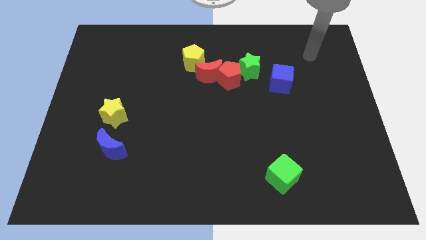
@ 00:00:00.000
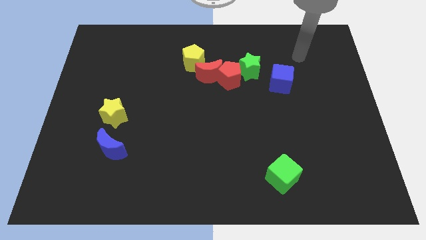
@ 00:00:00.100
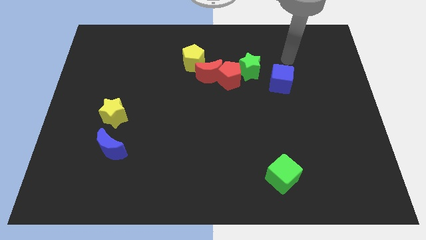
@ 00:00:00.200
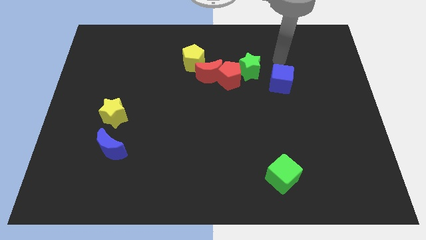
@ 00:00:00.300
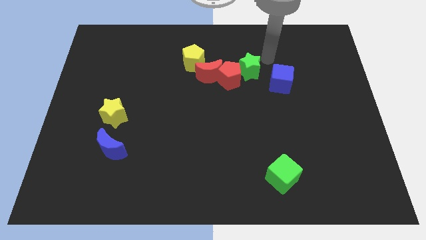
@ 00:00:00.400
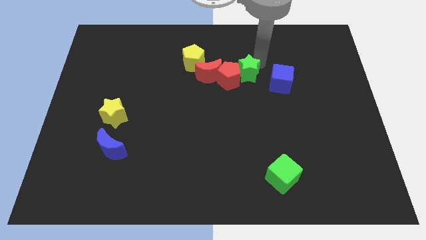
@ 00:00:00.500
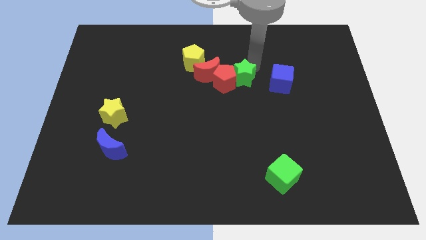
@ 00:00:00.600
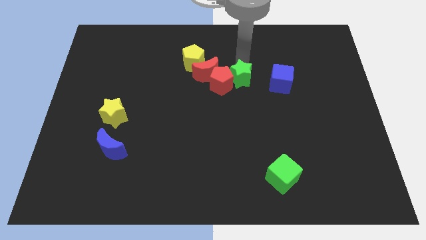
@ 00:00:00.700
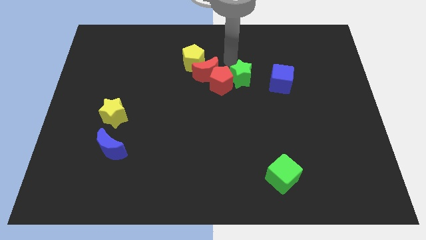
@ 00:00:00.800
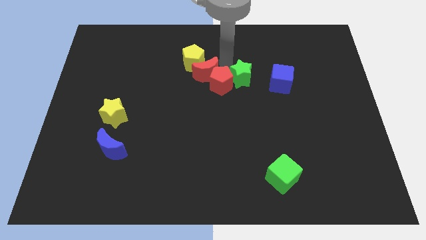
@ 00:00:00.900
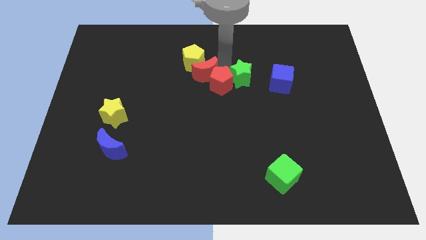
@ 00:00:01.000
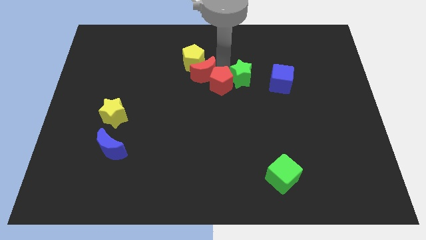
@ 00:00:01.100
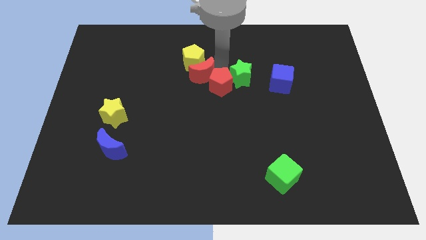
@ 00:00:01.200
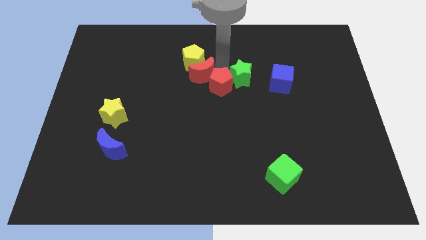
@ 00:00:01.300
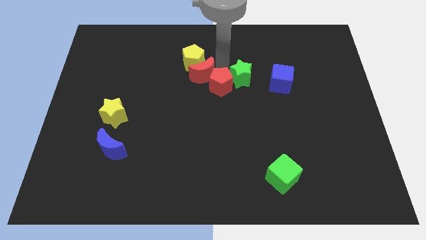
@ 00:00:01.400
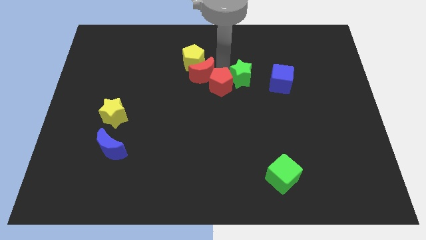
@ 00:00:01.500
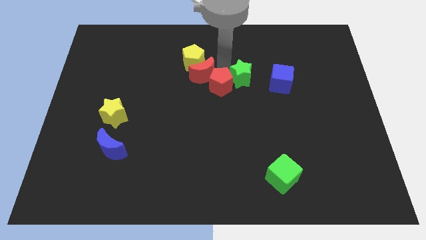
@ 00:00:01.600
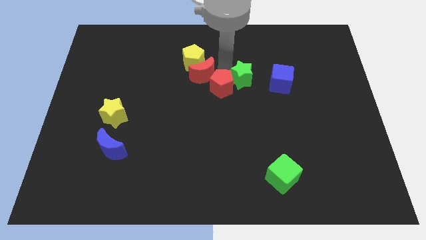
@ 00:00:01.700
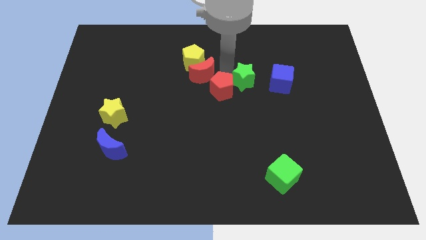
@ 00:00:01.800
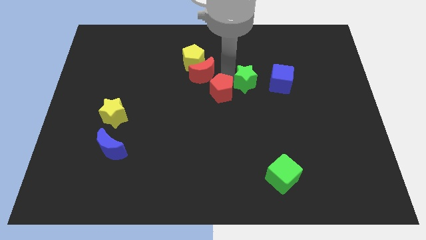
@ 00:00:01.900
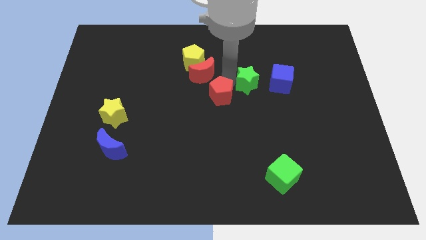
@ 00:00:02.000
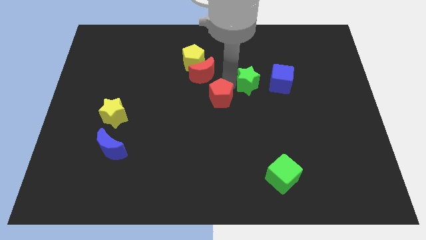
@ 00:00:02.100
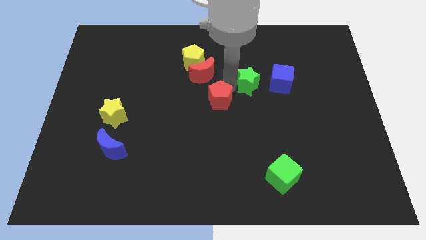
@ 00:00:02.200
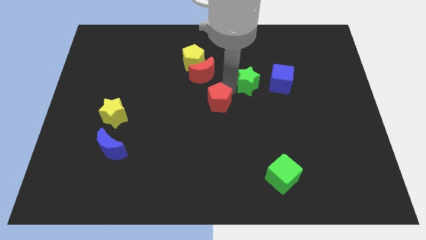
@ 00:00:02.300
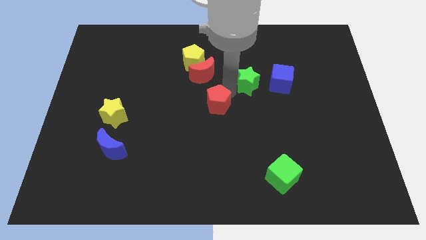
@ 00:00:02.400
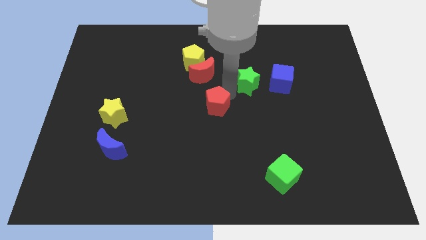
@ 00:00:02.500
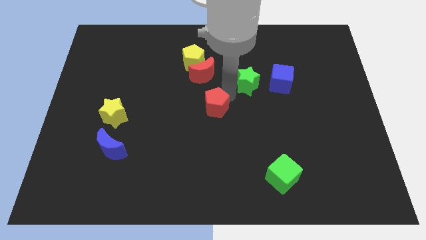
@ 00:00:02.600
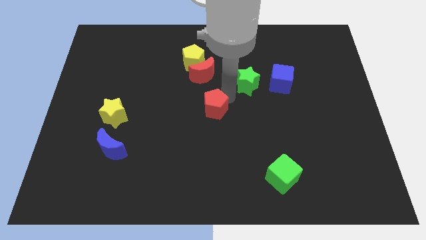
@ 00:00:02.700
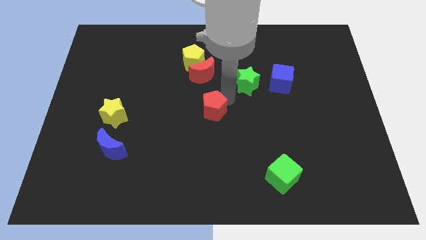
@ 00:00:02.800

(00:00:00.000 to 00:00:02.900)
separate the red pentagon from the red moon and green star

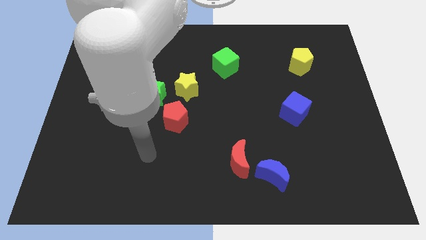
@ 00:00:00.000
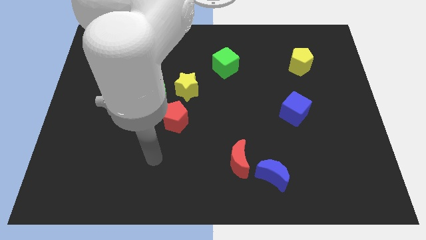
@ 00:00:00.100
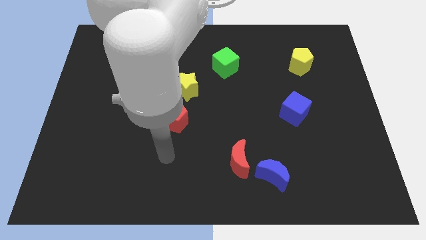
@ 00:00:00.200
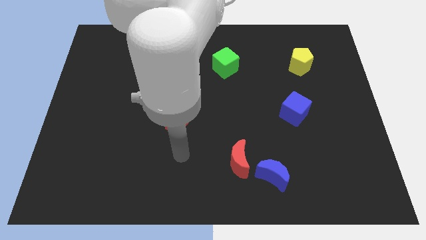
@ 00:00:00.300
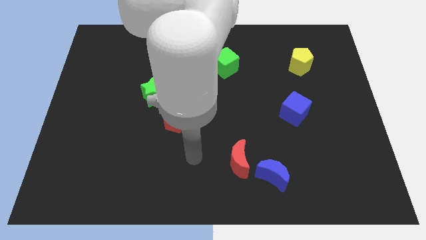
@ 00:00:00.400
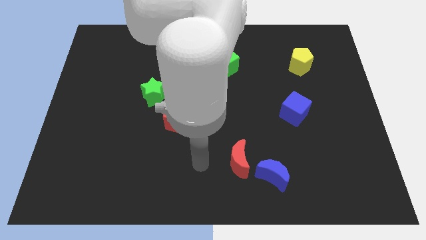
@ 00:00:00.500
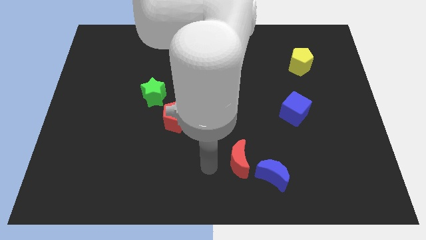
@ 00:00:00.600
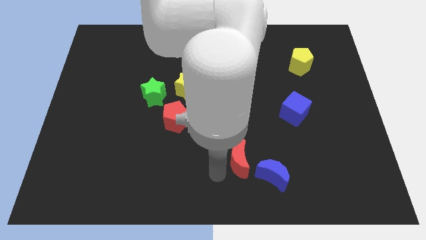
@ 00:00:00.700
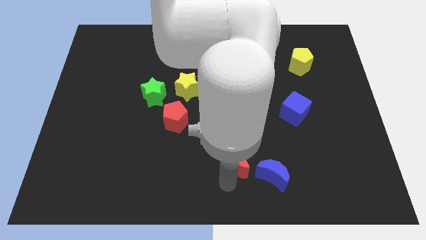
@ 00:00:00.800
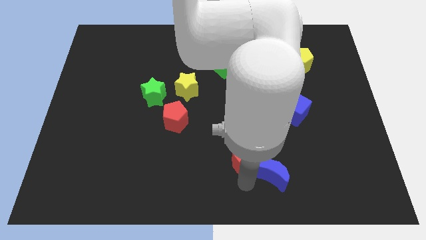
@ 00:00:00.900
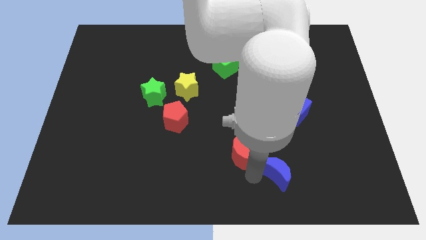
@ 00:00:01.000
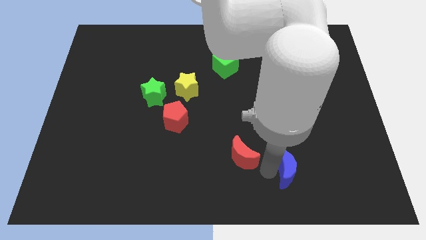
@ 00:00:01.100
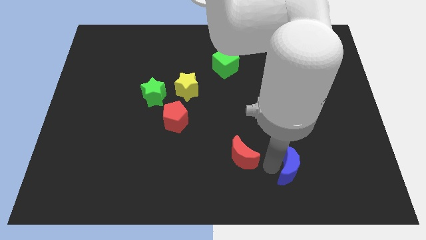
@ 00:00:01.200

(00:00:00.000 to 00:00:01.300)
move the red moon away from the blue moon

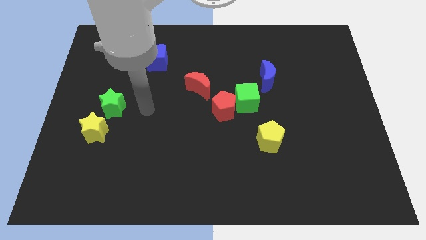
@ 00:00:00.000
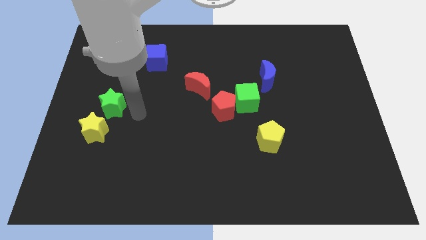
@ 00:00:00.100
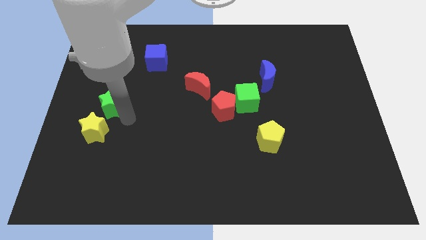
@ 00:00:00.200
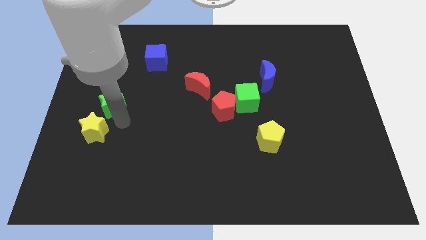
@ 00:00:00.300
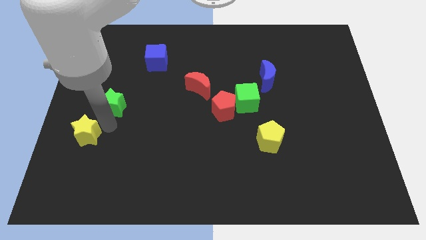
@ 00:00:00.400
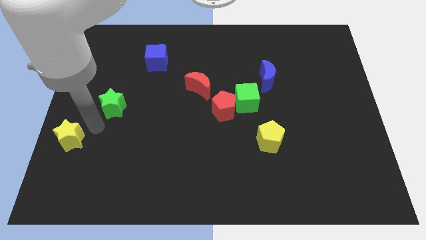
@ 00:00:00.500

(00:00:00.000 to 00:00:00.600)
pull the green star apart from the yellow star

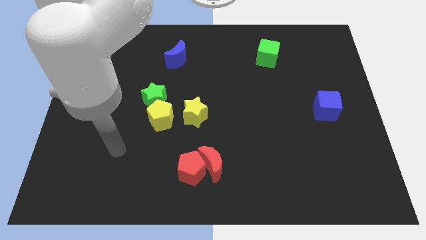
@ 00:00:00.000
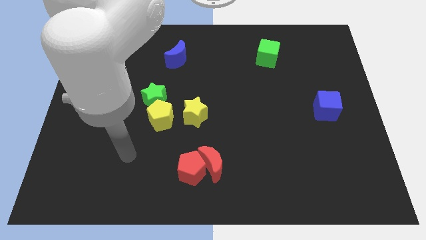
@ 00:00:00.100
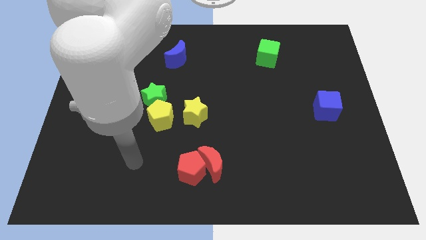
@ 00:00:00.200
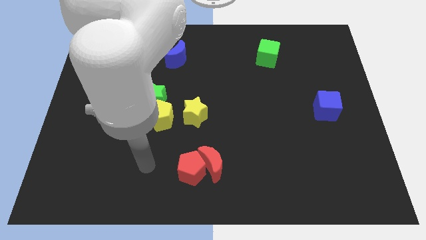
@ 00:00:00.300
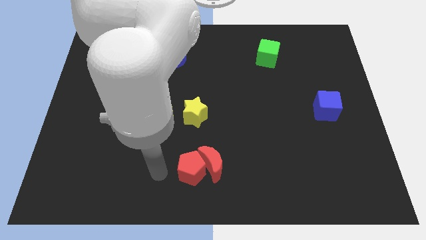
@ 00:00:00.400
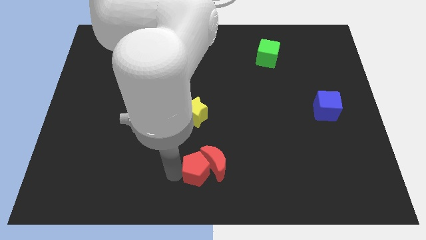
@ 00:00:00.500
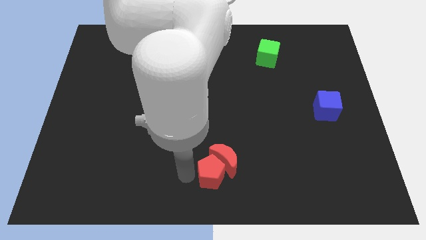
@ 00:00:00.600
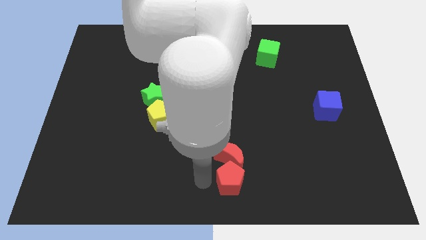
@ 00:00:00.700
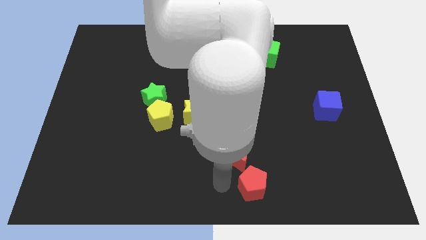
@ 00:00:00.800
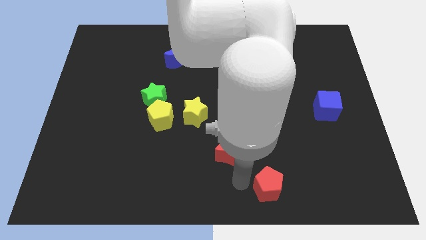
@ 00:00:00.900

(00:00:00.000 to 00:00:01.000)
move the red moon away from the red pentagon

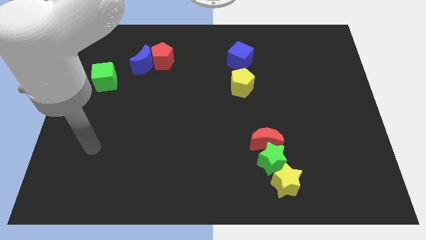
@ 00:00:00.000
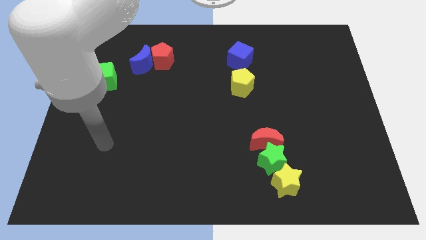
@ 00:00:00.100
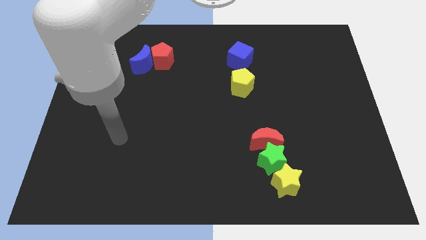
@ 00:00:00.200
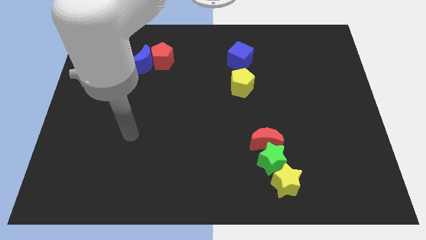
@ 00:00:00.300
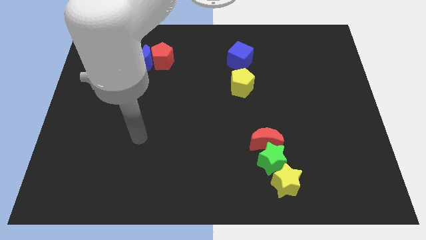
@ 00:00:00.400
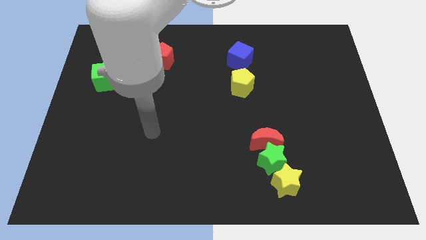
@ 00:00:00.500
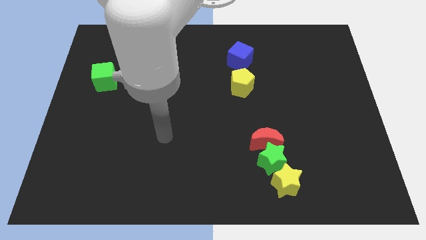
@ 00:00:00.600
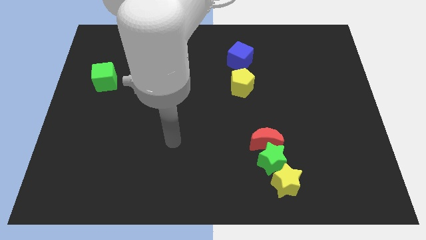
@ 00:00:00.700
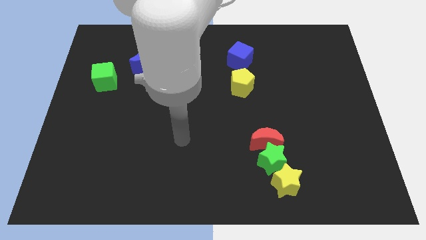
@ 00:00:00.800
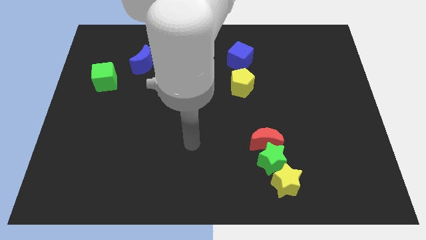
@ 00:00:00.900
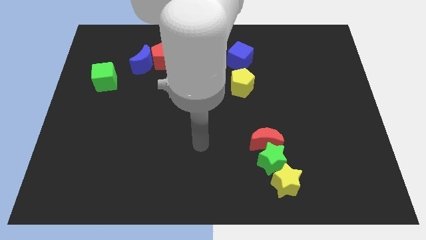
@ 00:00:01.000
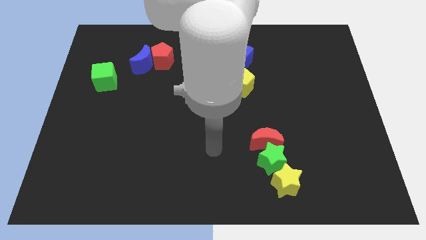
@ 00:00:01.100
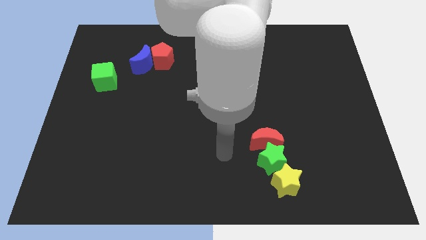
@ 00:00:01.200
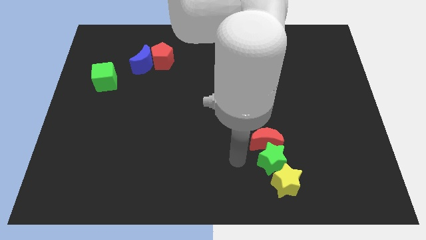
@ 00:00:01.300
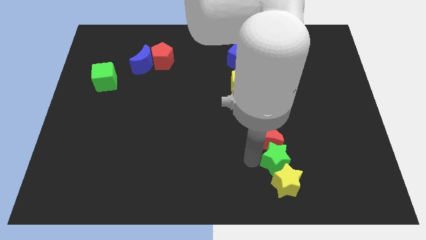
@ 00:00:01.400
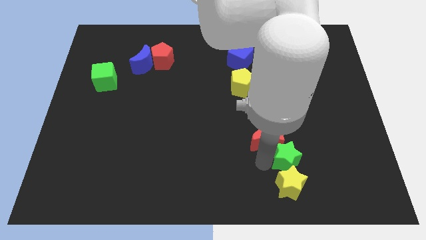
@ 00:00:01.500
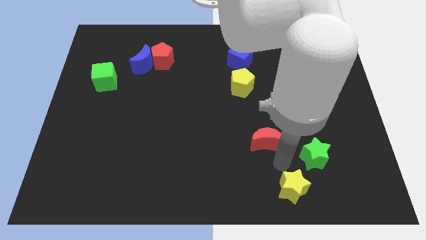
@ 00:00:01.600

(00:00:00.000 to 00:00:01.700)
separate the red moon from the green star

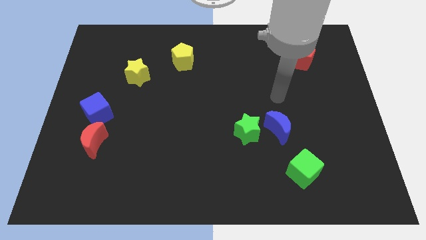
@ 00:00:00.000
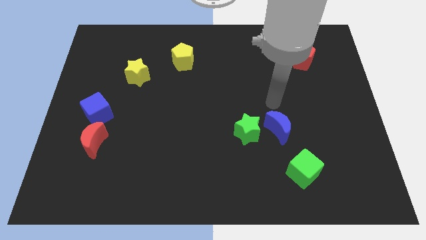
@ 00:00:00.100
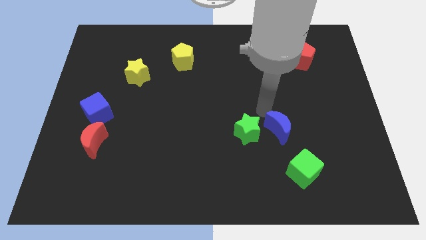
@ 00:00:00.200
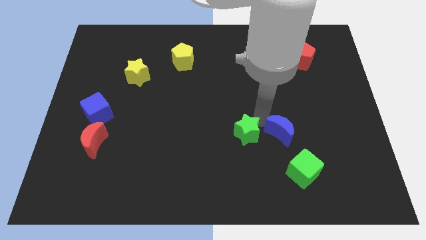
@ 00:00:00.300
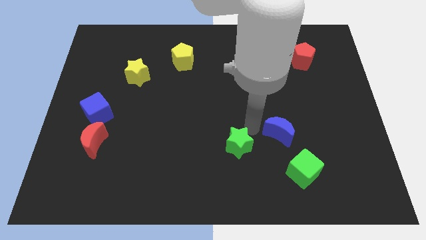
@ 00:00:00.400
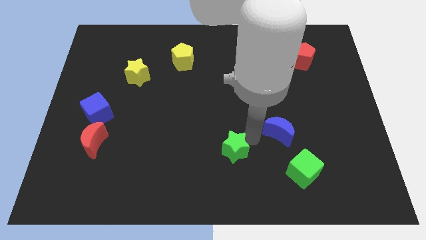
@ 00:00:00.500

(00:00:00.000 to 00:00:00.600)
move the blue moon away from the green star

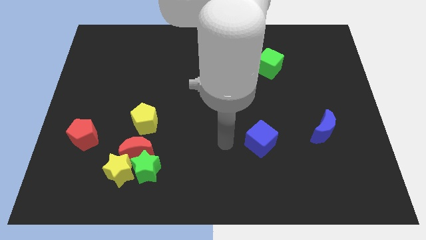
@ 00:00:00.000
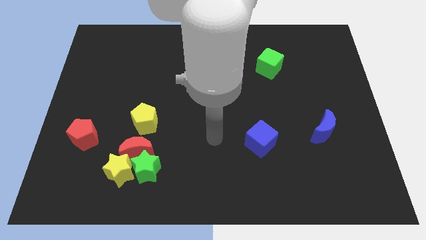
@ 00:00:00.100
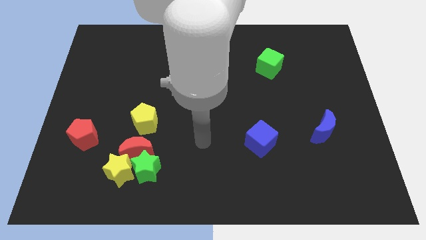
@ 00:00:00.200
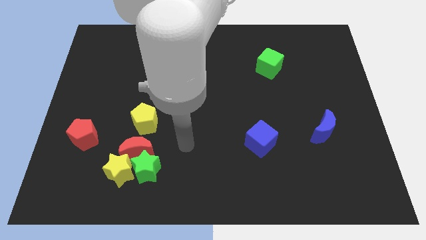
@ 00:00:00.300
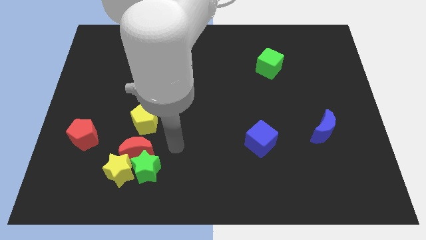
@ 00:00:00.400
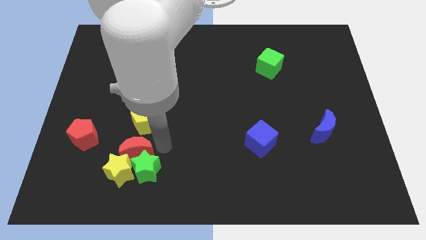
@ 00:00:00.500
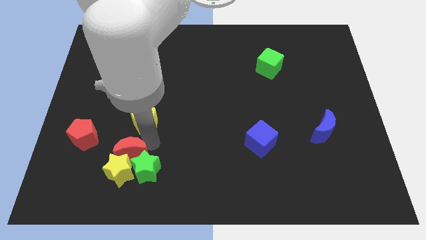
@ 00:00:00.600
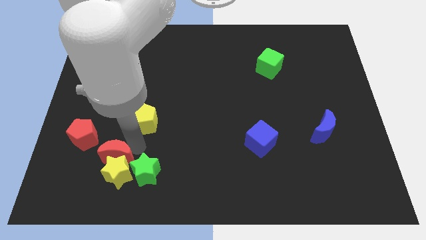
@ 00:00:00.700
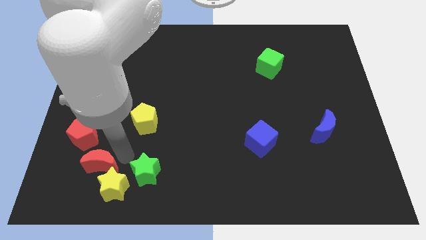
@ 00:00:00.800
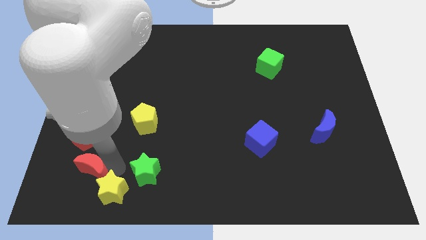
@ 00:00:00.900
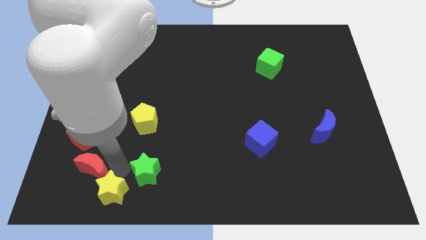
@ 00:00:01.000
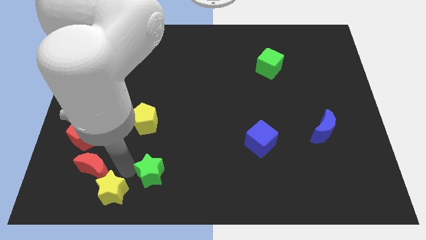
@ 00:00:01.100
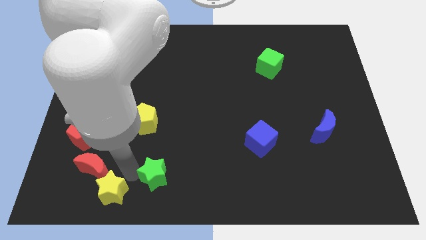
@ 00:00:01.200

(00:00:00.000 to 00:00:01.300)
separate the green star from the red moon and yellow star
